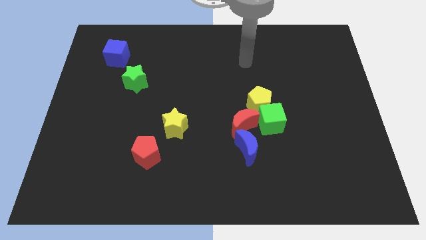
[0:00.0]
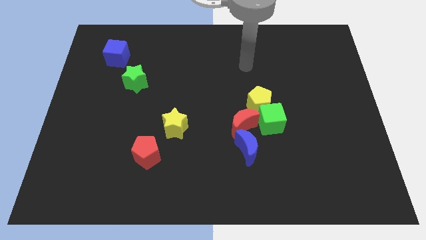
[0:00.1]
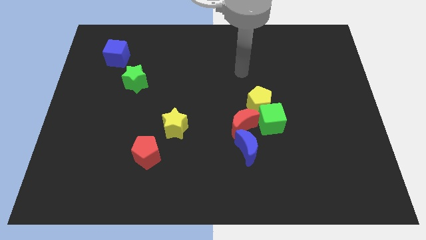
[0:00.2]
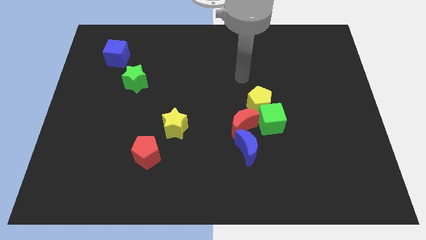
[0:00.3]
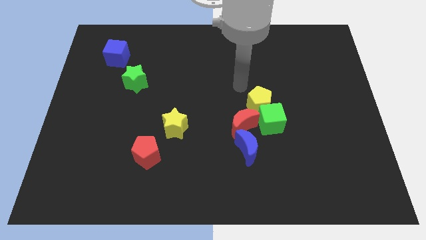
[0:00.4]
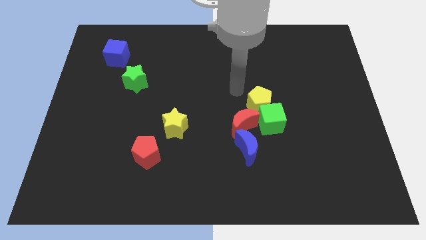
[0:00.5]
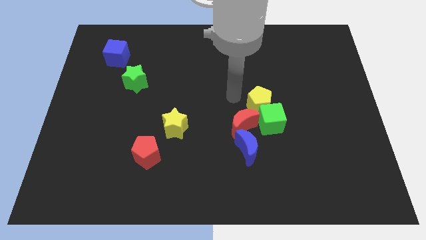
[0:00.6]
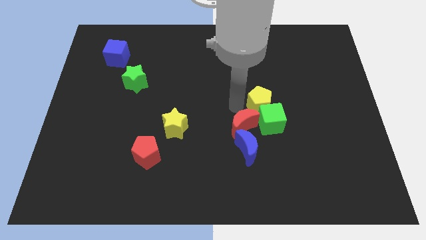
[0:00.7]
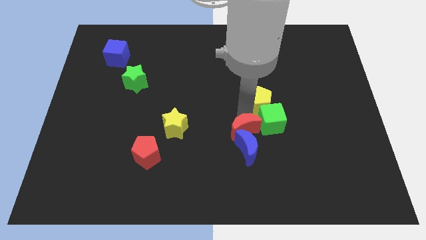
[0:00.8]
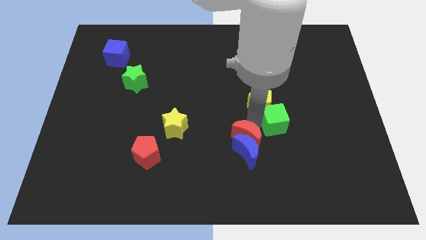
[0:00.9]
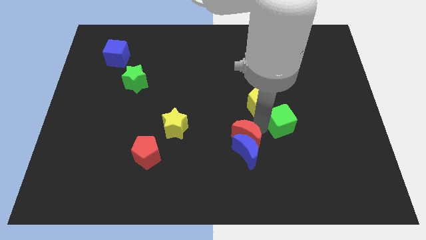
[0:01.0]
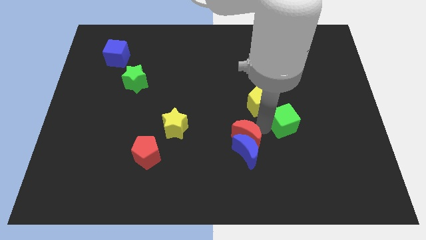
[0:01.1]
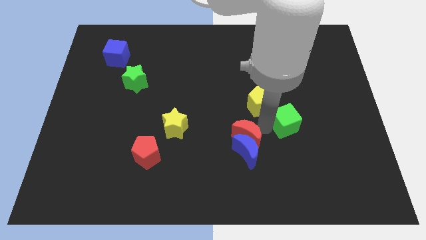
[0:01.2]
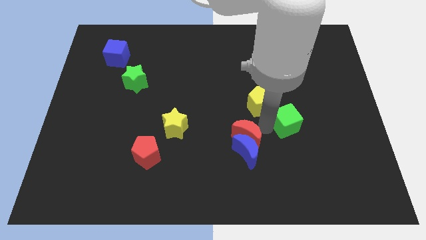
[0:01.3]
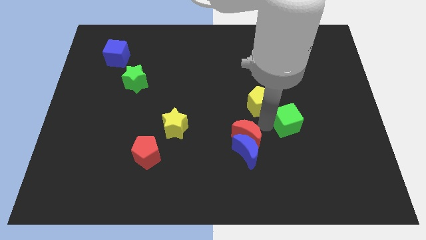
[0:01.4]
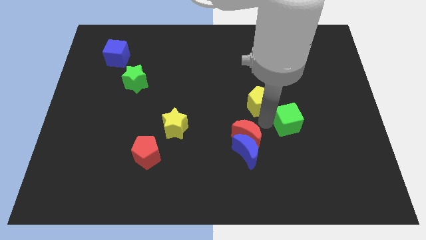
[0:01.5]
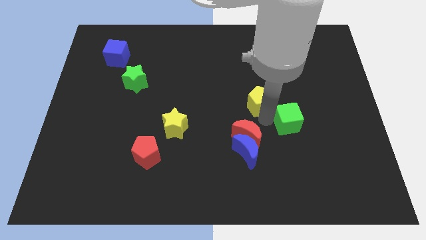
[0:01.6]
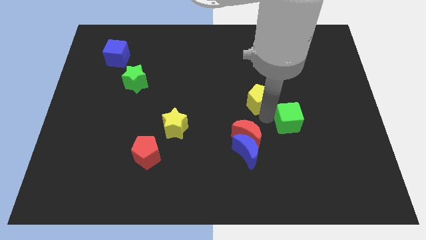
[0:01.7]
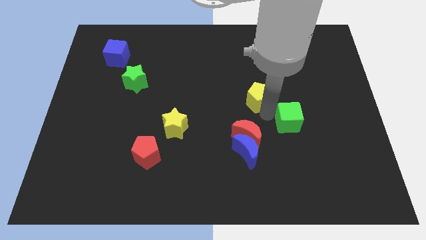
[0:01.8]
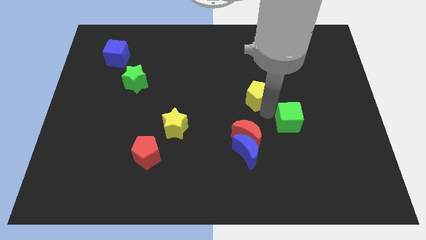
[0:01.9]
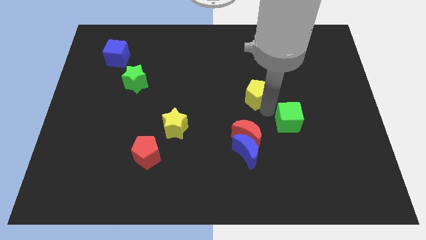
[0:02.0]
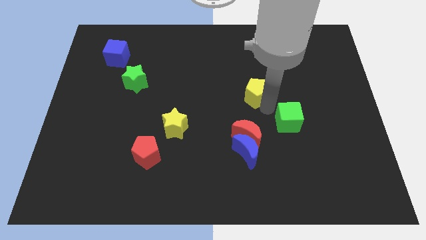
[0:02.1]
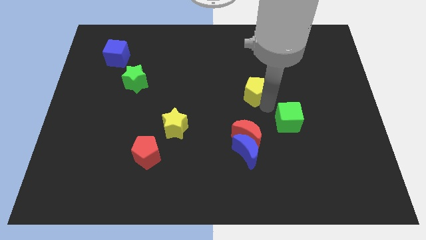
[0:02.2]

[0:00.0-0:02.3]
move the yellow pentagon away from the green cube and red moon

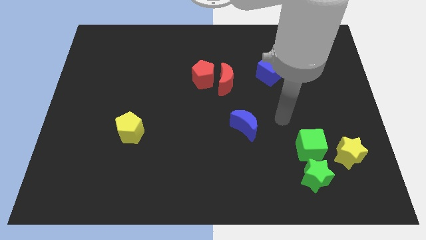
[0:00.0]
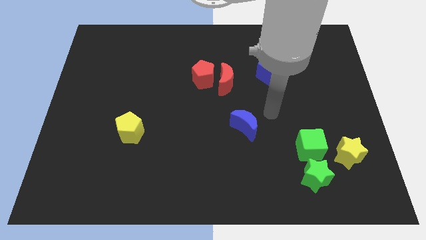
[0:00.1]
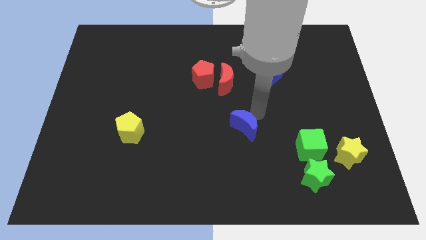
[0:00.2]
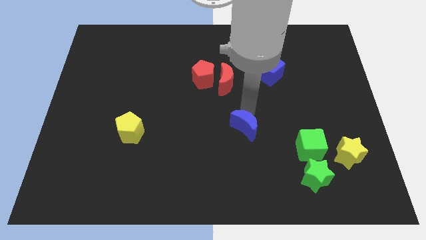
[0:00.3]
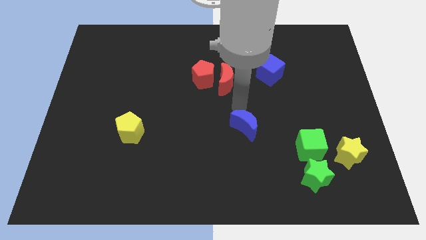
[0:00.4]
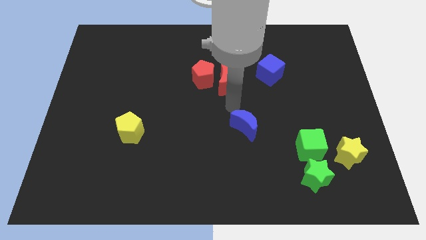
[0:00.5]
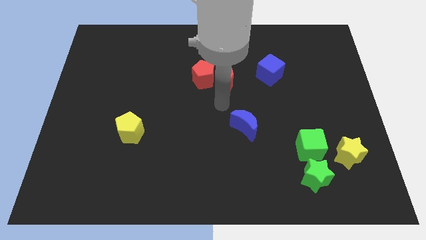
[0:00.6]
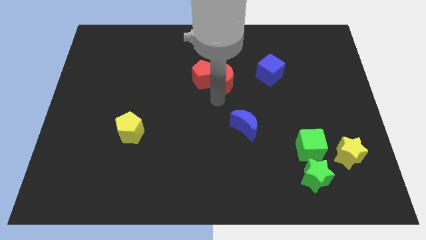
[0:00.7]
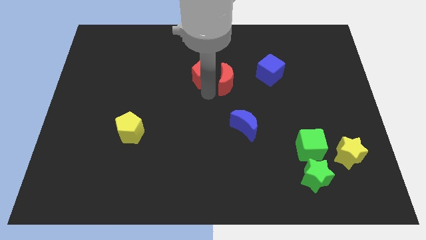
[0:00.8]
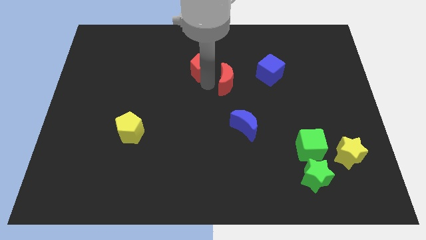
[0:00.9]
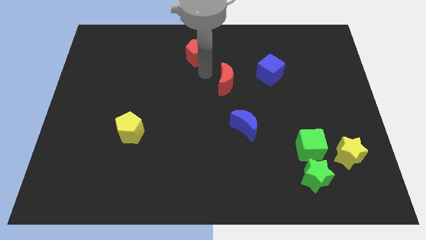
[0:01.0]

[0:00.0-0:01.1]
pull the red moon apart from the red pentagon

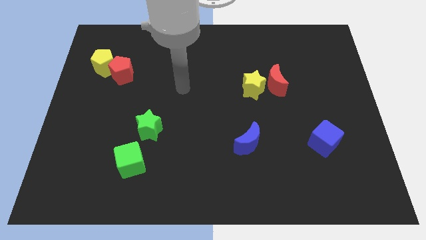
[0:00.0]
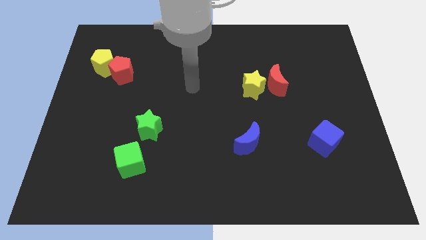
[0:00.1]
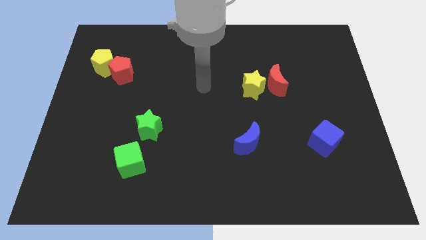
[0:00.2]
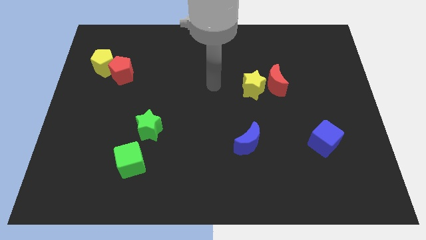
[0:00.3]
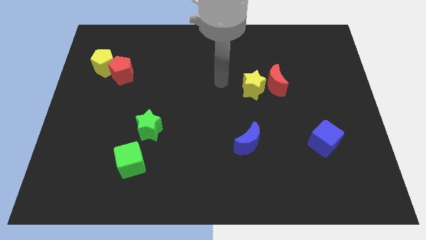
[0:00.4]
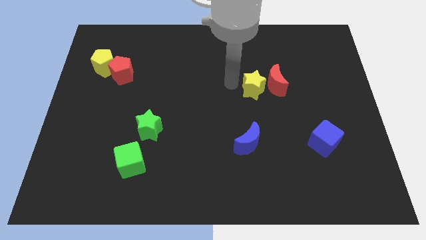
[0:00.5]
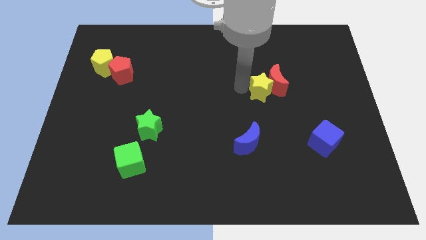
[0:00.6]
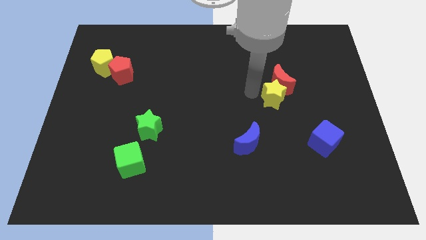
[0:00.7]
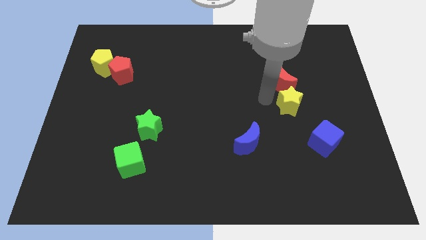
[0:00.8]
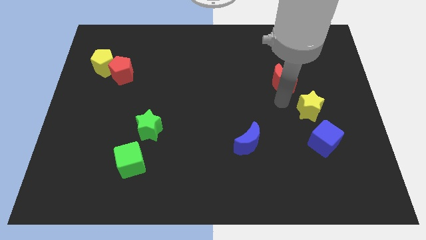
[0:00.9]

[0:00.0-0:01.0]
separate the red moon from the yellow star

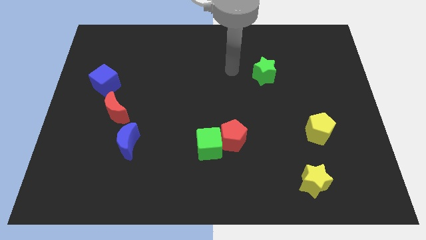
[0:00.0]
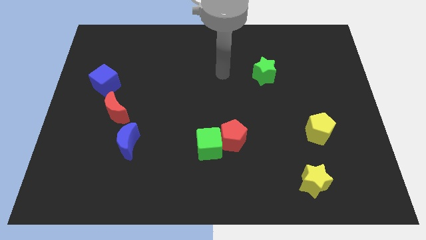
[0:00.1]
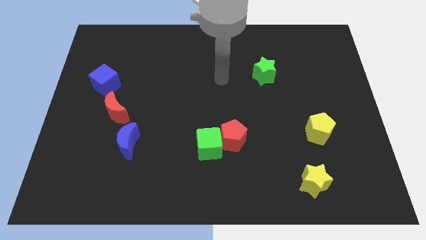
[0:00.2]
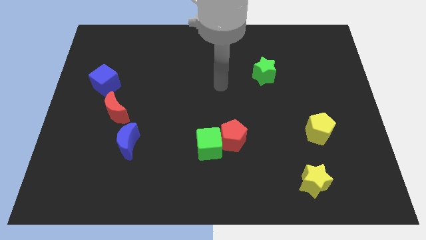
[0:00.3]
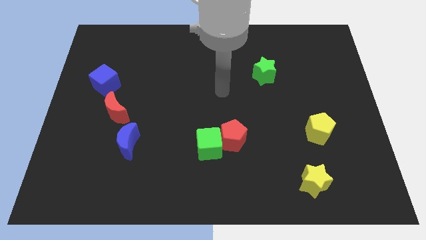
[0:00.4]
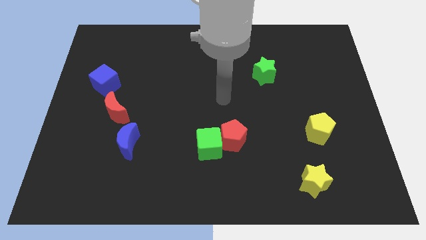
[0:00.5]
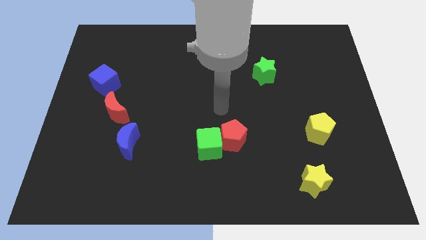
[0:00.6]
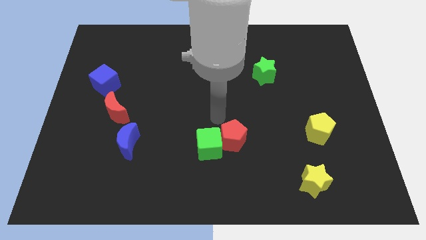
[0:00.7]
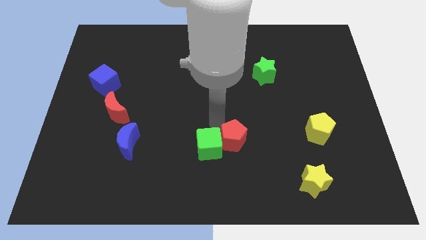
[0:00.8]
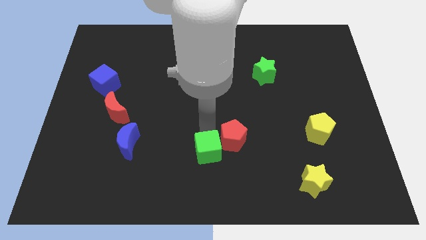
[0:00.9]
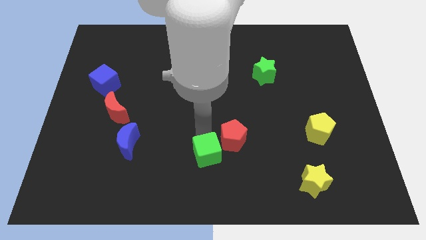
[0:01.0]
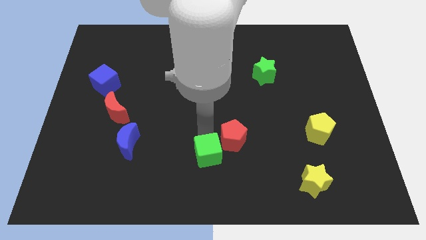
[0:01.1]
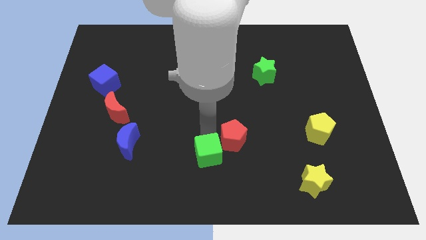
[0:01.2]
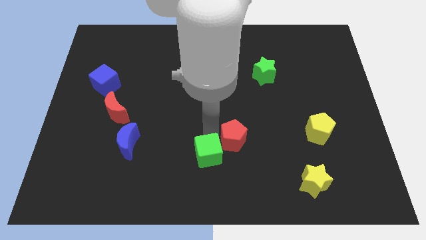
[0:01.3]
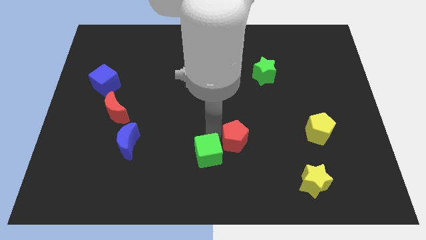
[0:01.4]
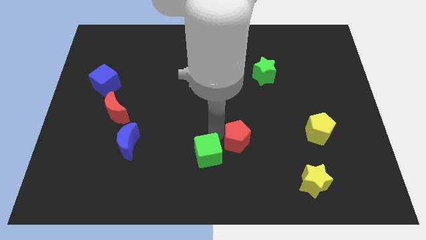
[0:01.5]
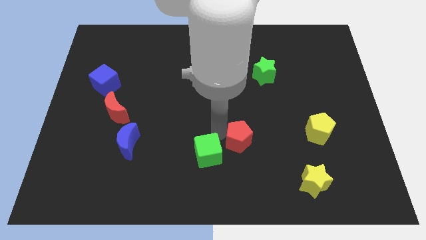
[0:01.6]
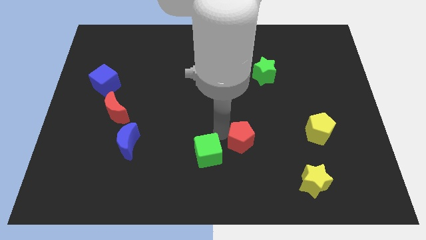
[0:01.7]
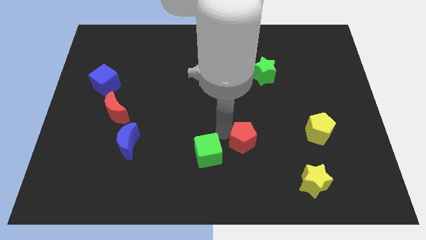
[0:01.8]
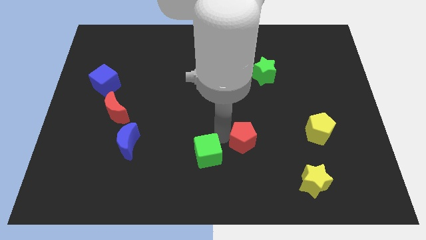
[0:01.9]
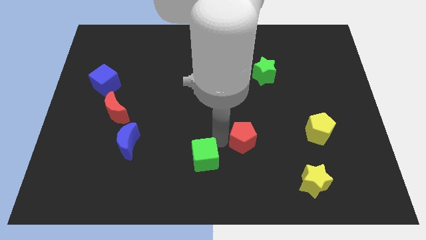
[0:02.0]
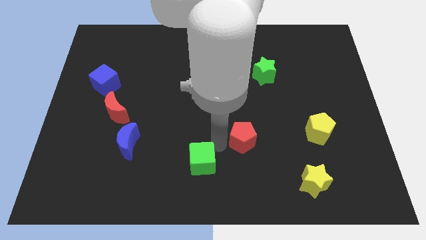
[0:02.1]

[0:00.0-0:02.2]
separate the red pentagon from the green cube

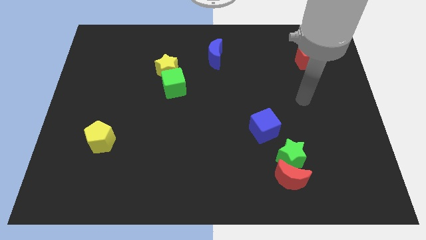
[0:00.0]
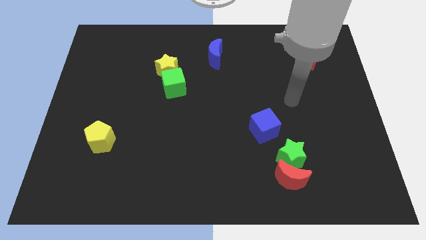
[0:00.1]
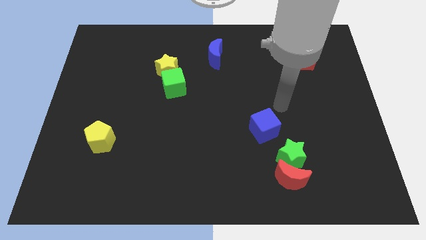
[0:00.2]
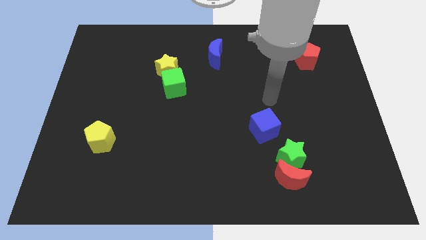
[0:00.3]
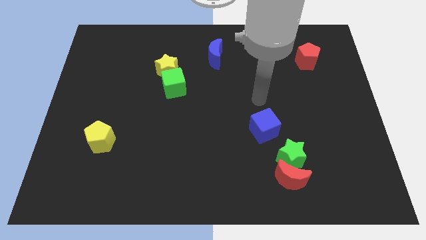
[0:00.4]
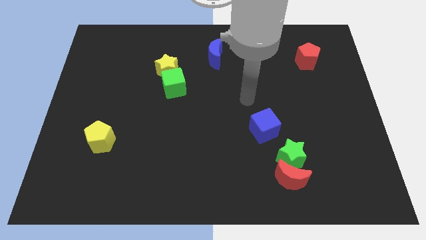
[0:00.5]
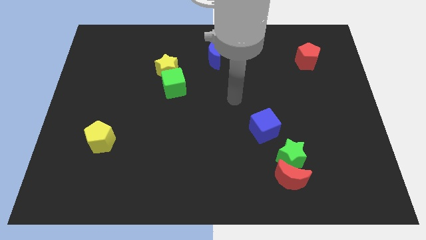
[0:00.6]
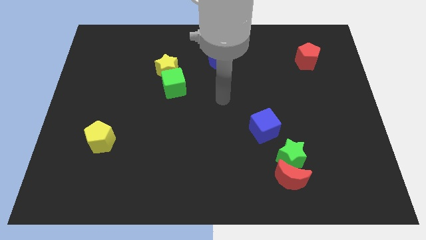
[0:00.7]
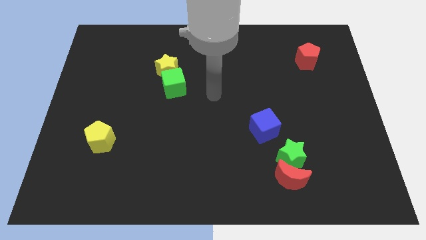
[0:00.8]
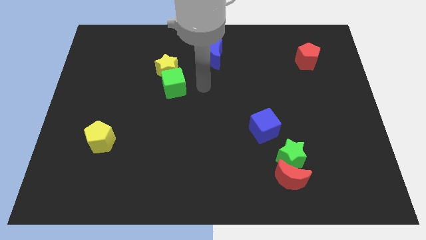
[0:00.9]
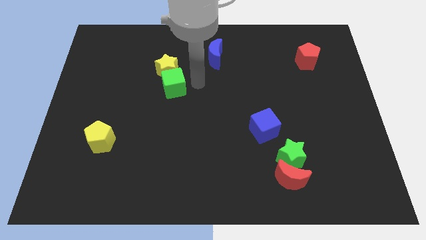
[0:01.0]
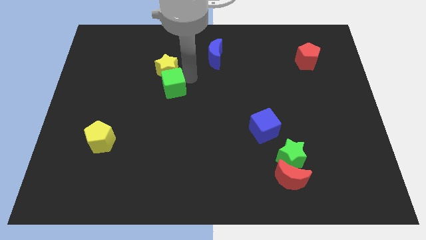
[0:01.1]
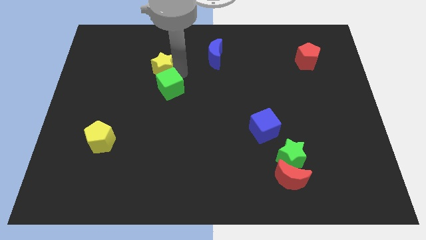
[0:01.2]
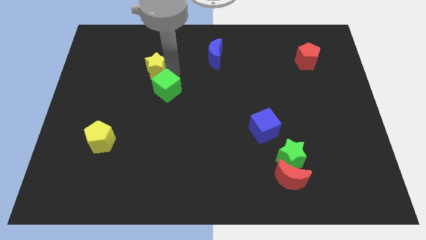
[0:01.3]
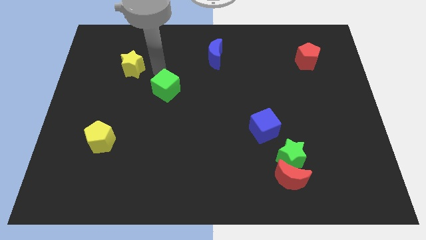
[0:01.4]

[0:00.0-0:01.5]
pull the green cube apart from the yellow star

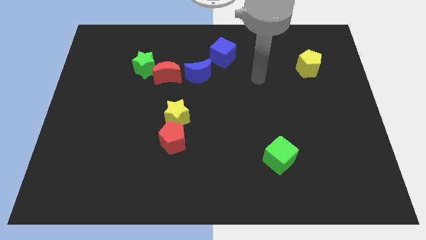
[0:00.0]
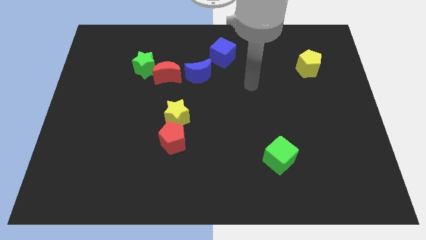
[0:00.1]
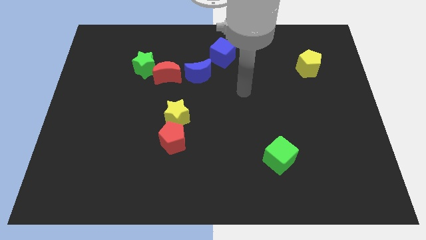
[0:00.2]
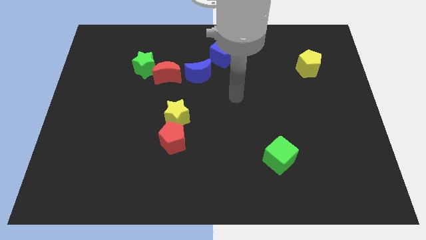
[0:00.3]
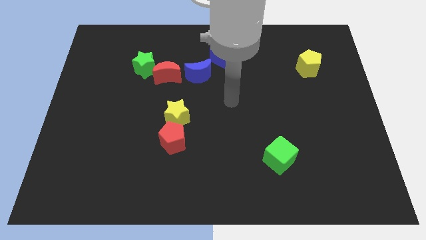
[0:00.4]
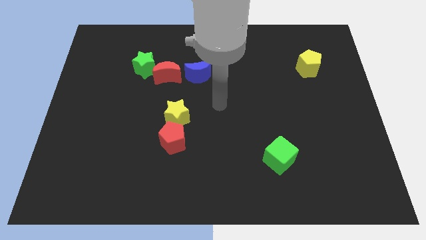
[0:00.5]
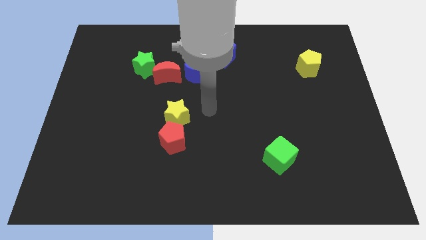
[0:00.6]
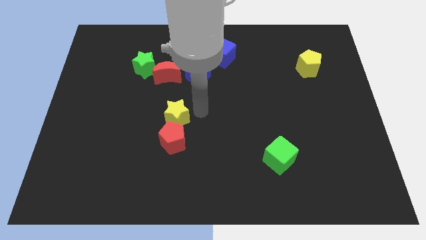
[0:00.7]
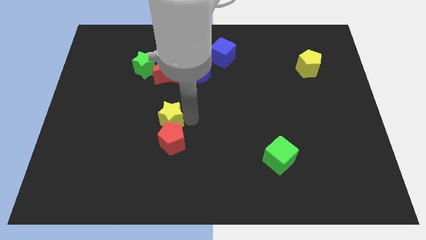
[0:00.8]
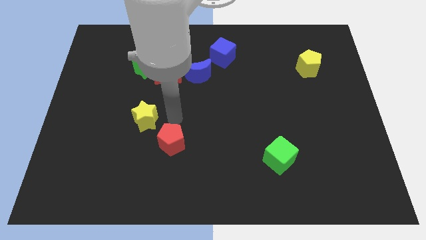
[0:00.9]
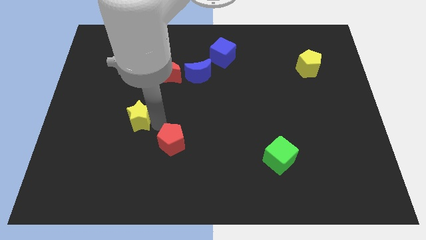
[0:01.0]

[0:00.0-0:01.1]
separate the red pentagon from the yellow star
